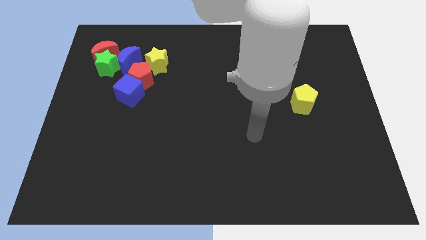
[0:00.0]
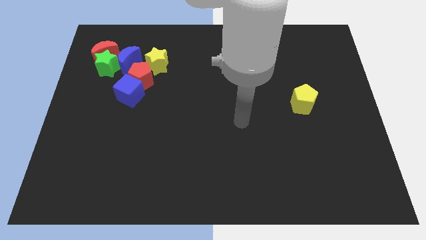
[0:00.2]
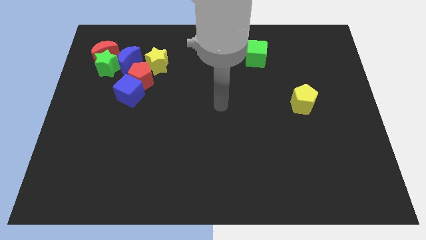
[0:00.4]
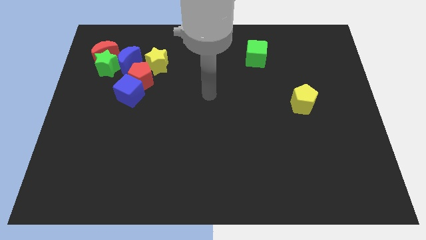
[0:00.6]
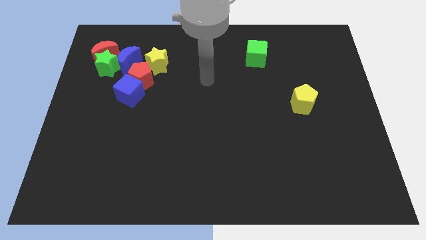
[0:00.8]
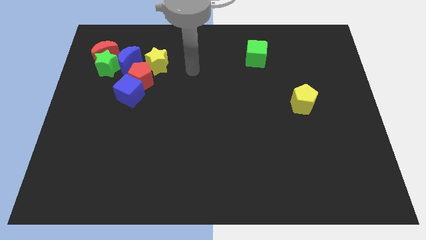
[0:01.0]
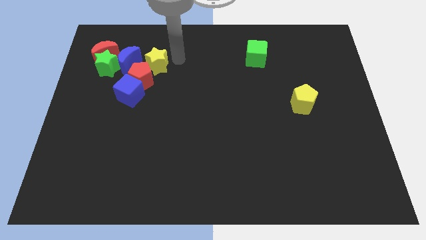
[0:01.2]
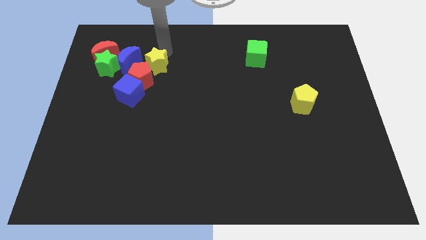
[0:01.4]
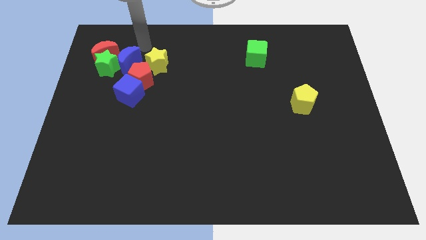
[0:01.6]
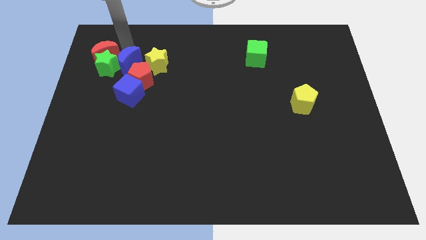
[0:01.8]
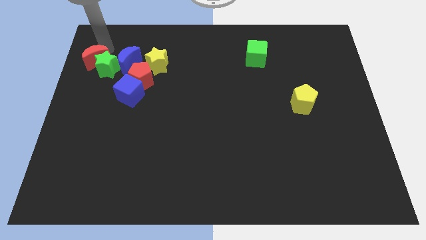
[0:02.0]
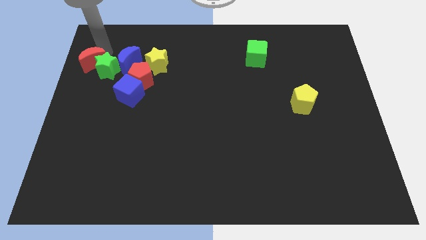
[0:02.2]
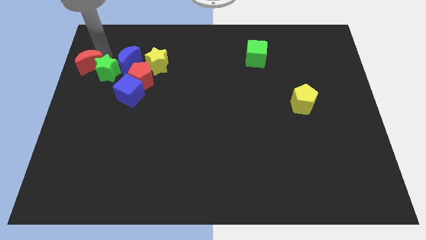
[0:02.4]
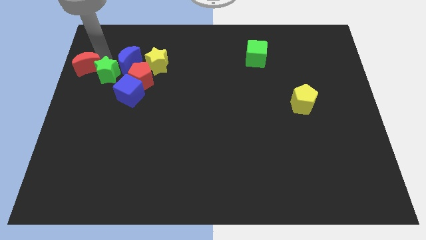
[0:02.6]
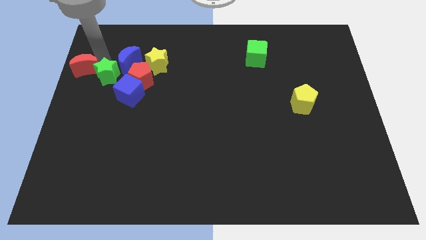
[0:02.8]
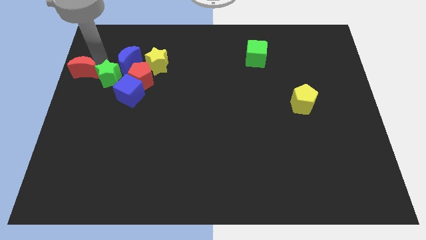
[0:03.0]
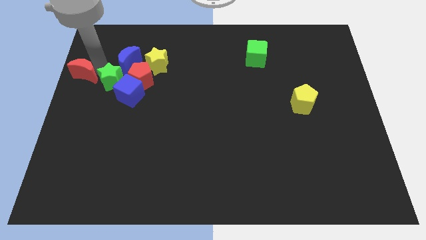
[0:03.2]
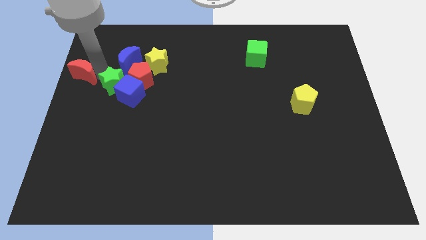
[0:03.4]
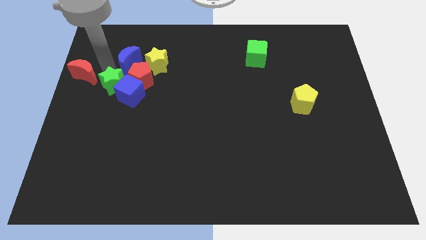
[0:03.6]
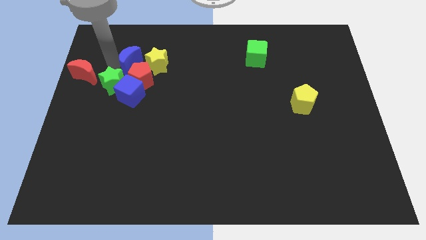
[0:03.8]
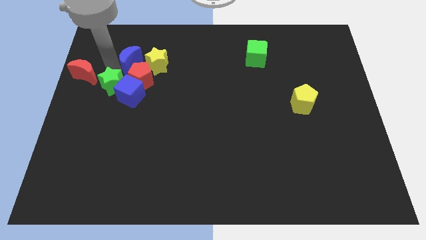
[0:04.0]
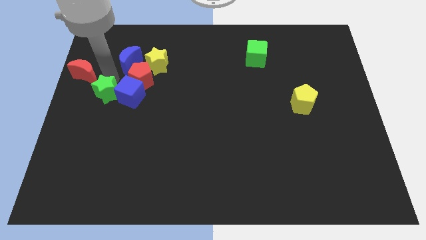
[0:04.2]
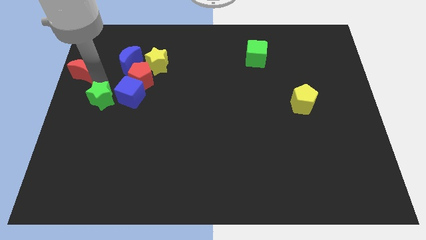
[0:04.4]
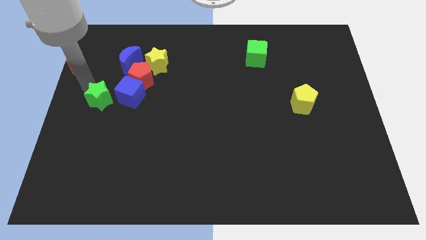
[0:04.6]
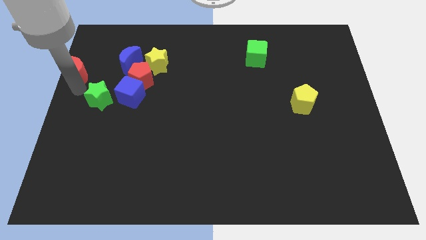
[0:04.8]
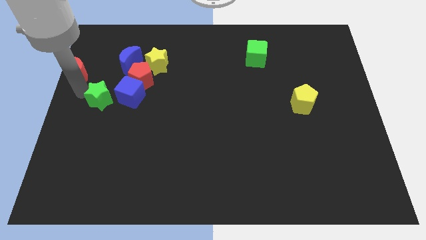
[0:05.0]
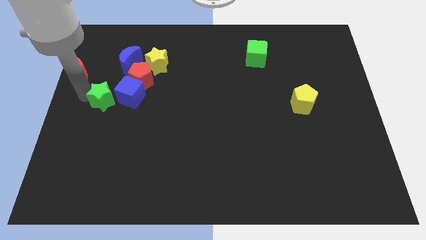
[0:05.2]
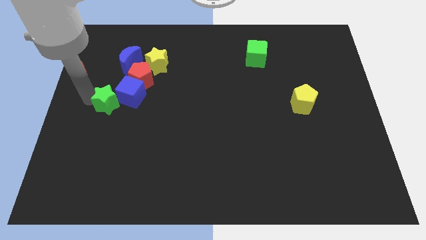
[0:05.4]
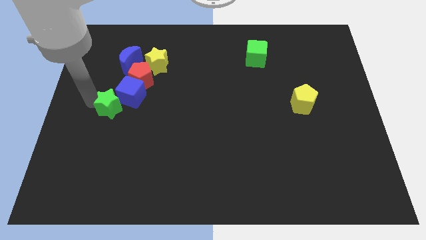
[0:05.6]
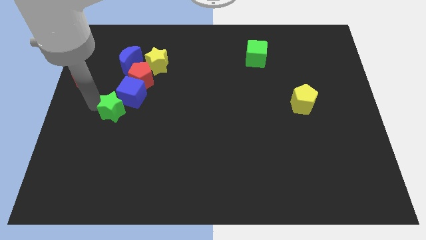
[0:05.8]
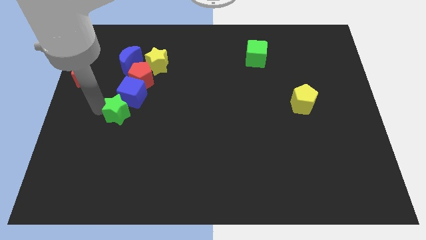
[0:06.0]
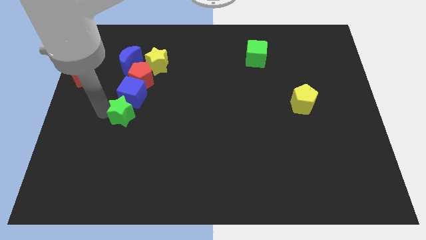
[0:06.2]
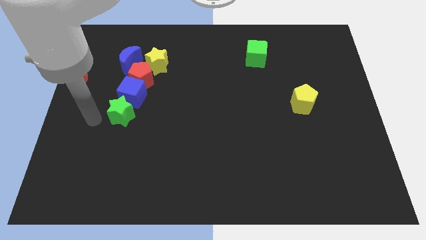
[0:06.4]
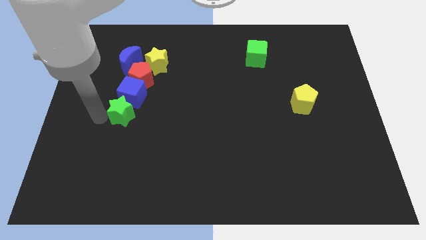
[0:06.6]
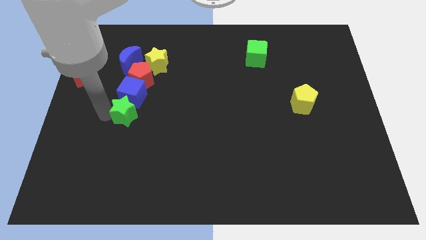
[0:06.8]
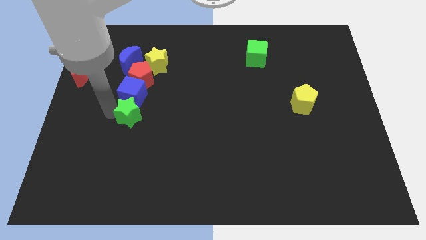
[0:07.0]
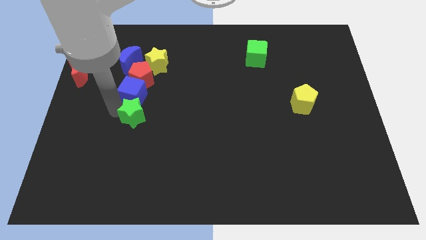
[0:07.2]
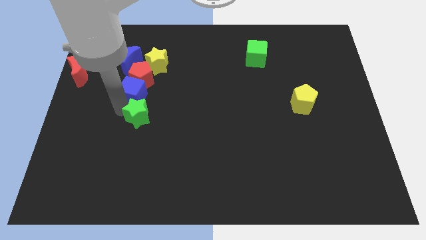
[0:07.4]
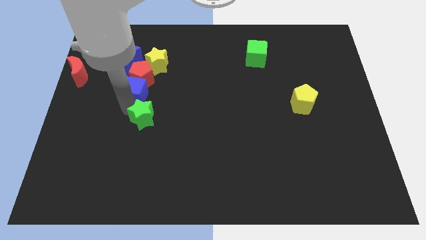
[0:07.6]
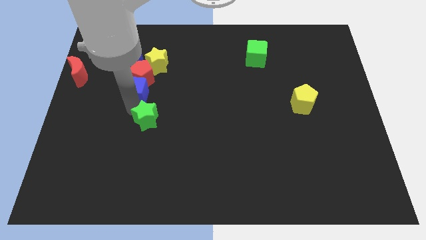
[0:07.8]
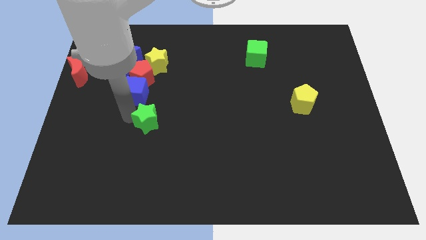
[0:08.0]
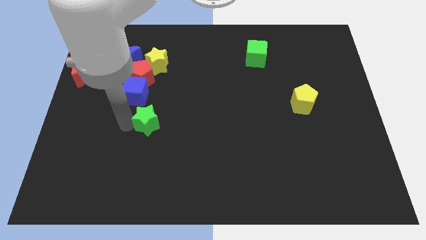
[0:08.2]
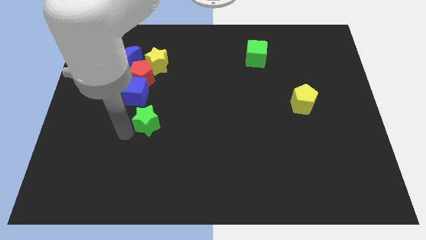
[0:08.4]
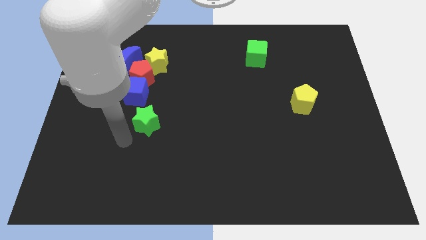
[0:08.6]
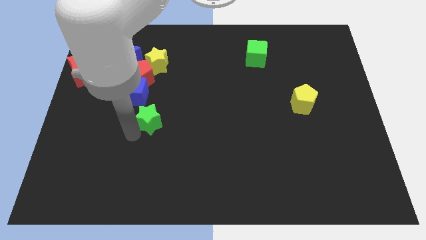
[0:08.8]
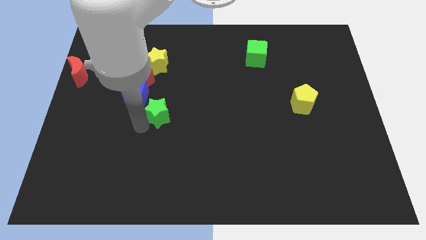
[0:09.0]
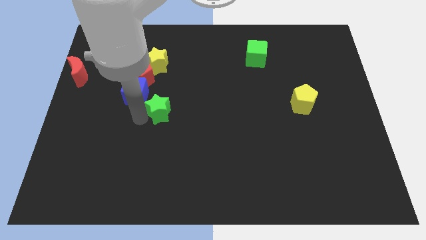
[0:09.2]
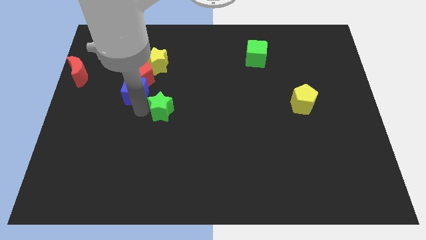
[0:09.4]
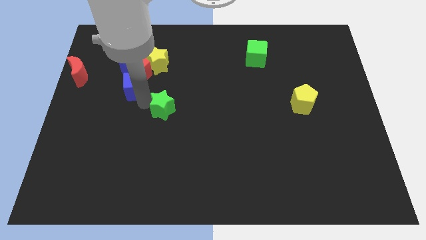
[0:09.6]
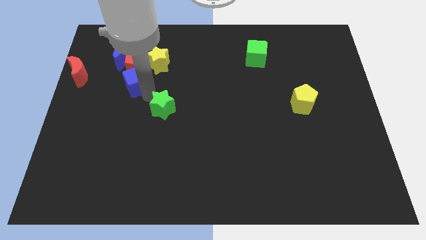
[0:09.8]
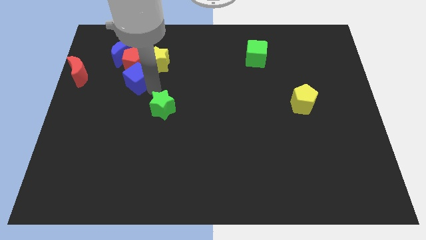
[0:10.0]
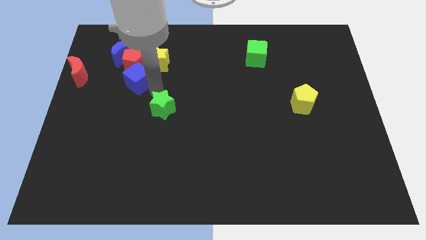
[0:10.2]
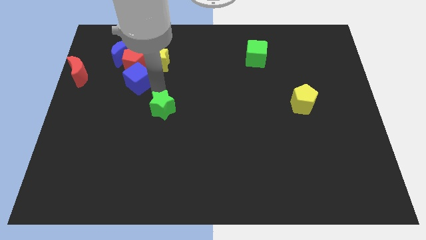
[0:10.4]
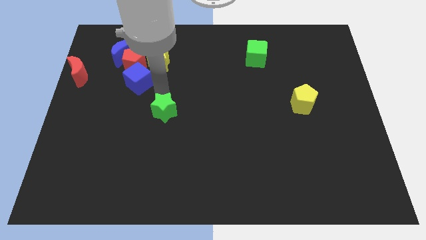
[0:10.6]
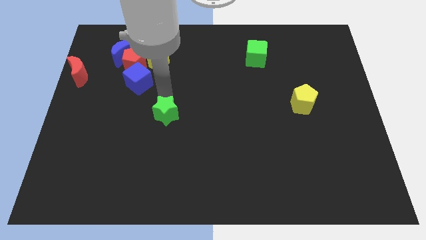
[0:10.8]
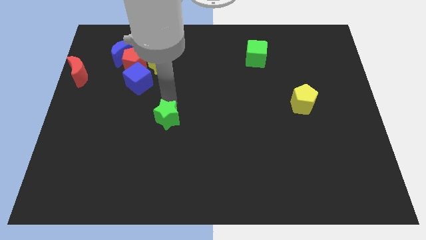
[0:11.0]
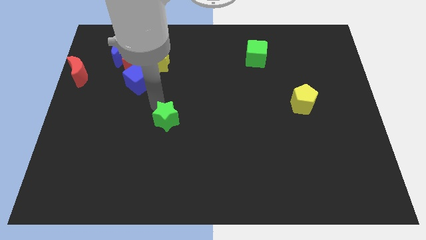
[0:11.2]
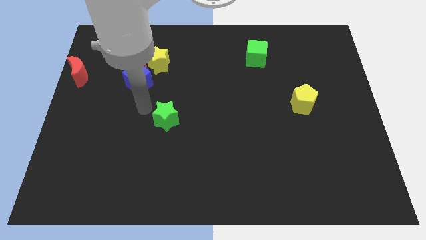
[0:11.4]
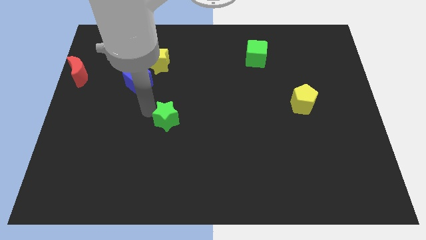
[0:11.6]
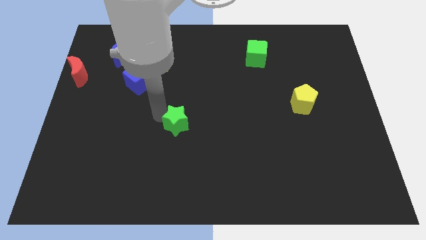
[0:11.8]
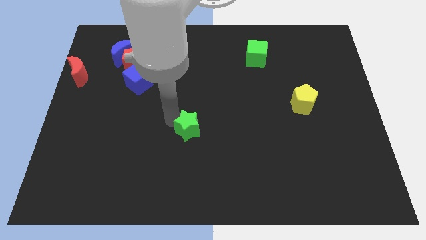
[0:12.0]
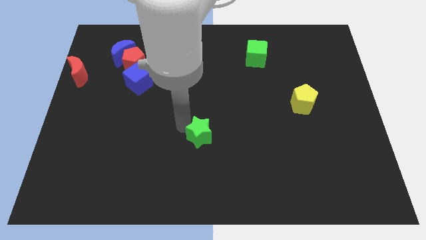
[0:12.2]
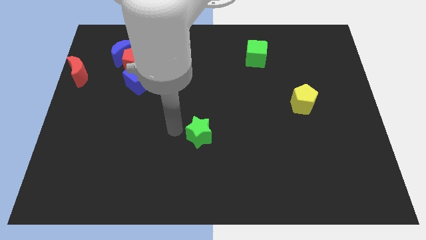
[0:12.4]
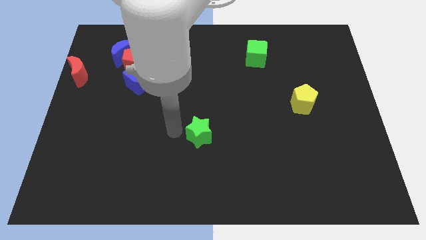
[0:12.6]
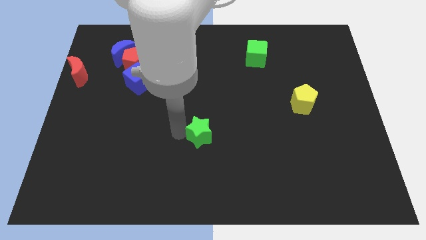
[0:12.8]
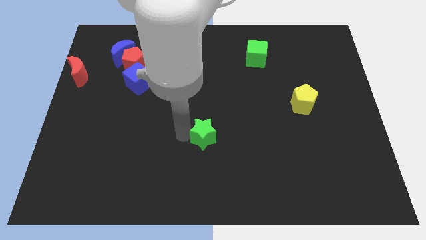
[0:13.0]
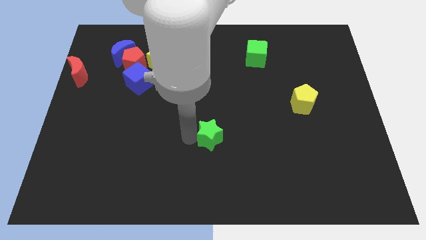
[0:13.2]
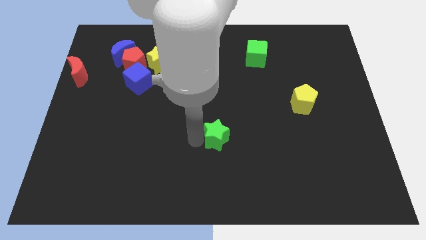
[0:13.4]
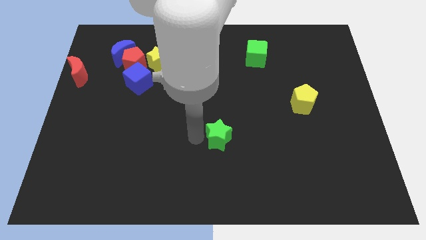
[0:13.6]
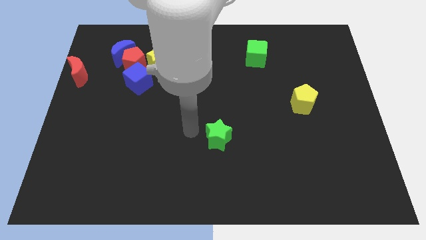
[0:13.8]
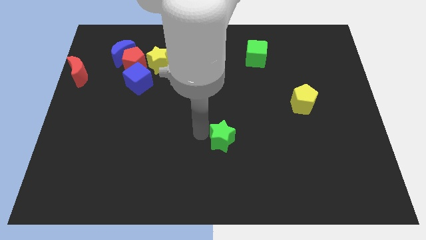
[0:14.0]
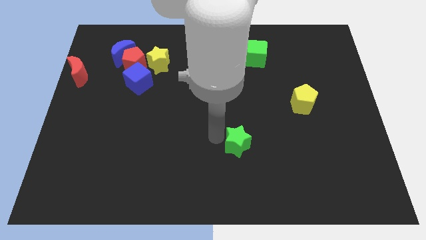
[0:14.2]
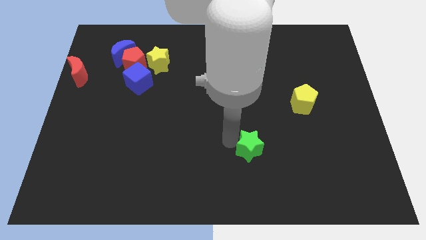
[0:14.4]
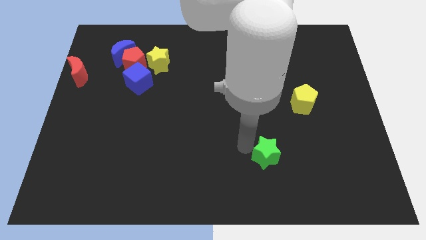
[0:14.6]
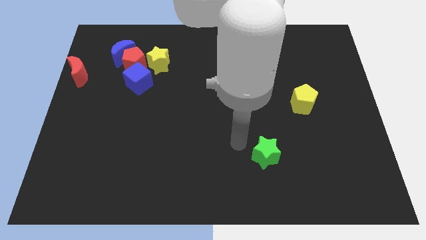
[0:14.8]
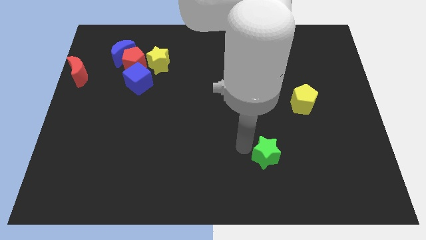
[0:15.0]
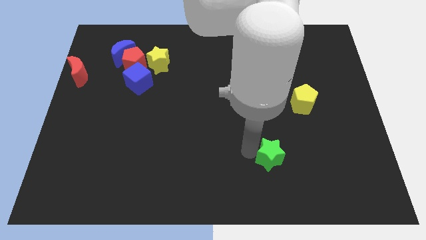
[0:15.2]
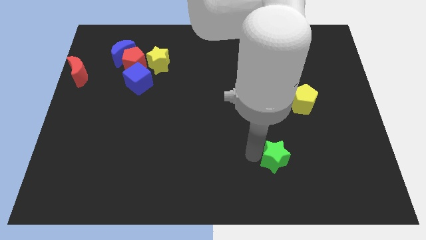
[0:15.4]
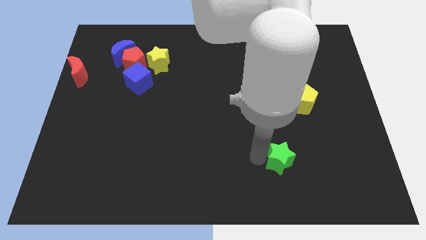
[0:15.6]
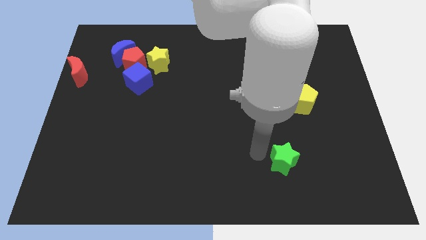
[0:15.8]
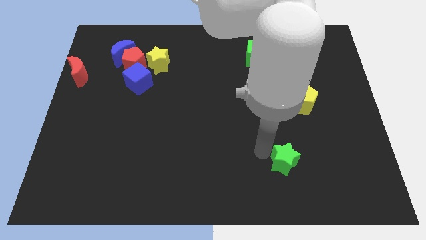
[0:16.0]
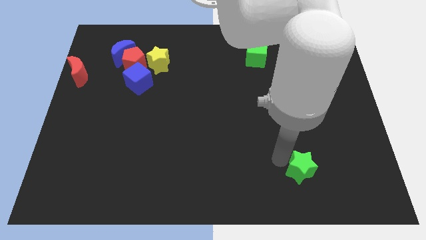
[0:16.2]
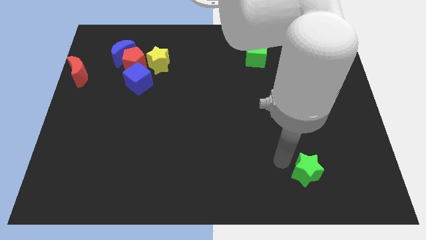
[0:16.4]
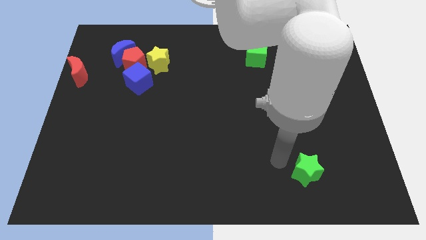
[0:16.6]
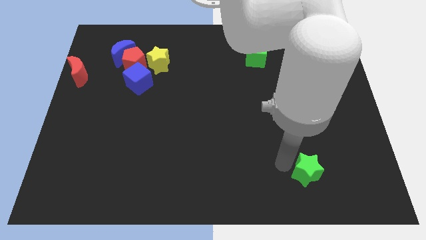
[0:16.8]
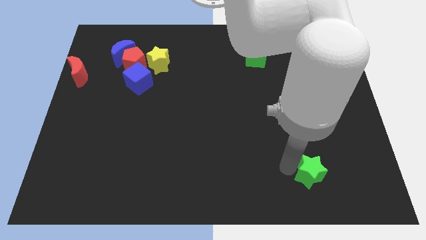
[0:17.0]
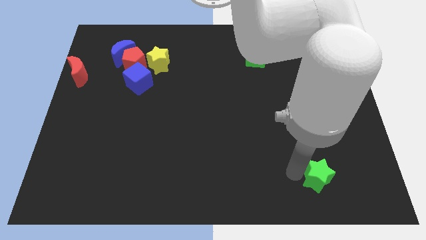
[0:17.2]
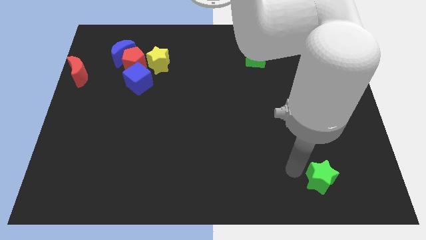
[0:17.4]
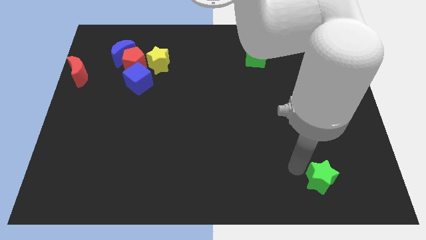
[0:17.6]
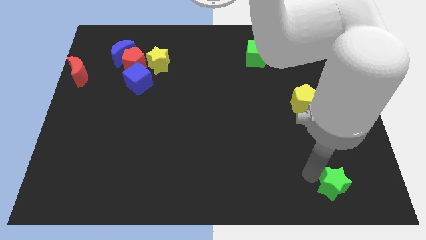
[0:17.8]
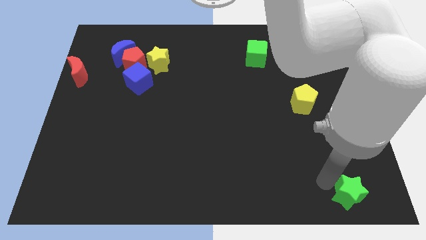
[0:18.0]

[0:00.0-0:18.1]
push the green star to the bottom right of the board
